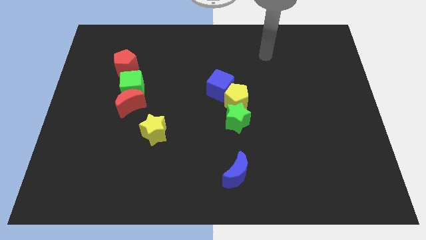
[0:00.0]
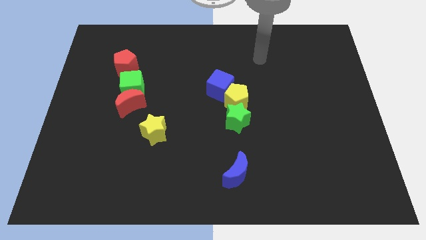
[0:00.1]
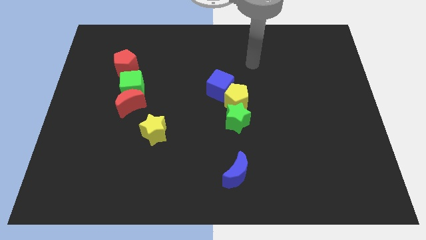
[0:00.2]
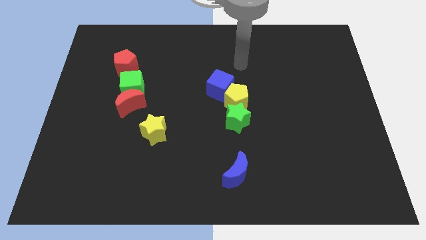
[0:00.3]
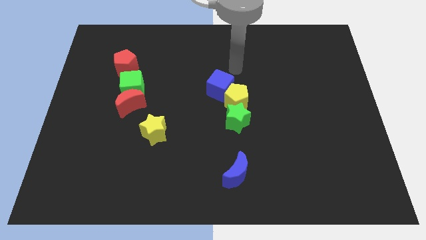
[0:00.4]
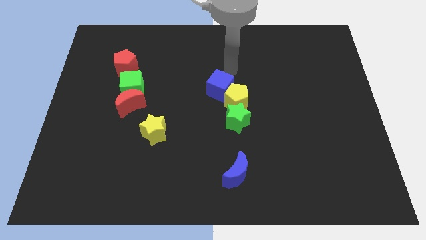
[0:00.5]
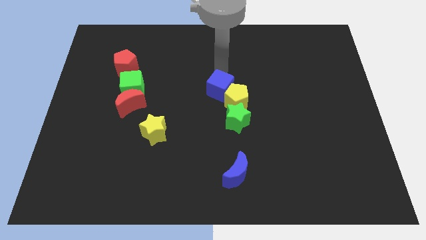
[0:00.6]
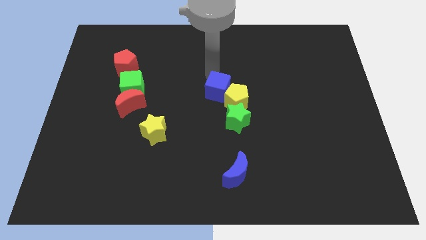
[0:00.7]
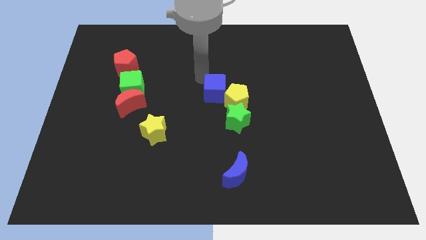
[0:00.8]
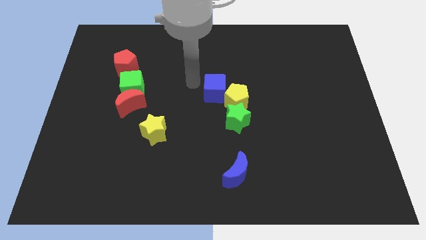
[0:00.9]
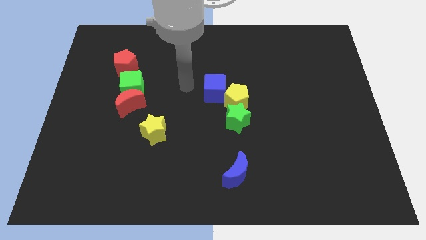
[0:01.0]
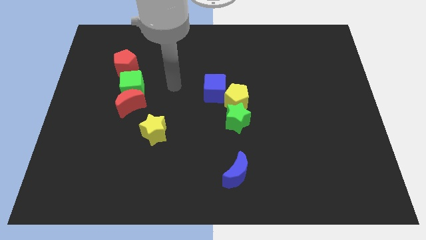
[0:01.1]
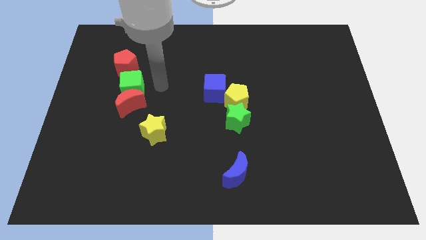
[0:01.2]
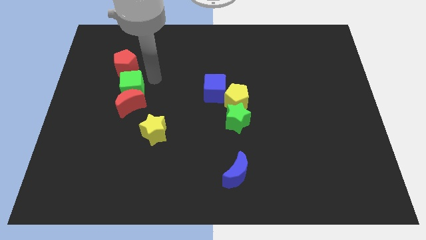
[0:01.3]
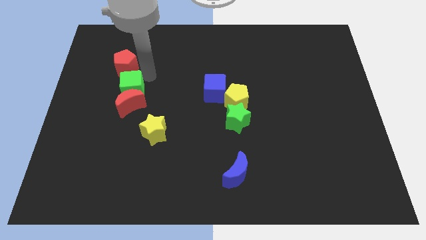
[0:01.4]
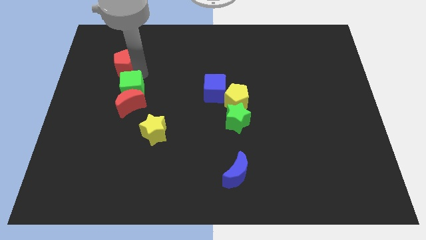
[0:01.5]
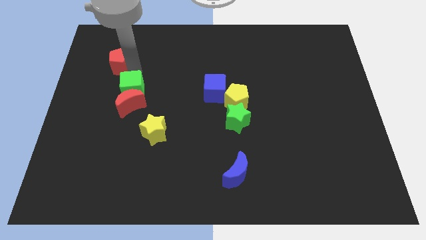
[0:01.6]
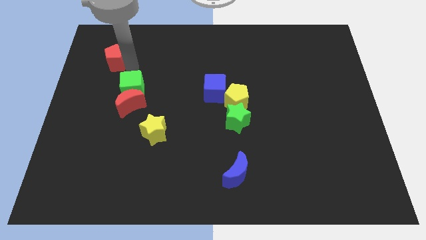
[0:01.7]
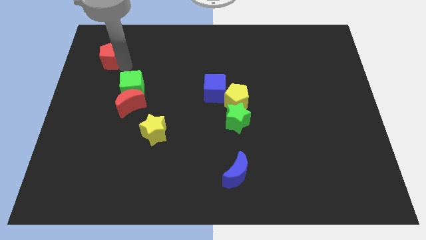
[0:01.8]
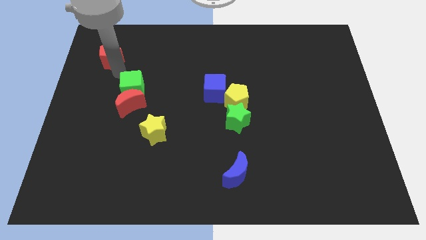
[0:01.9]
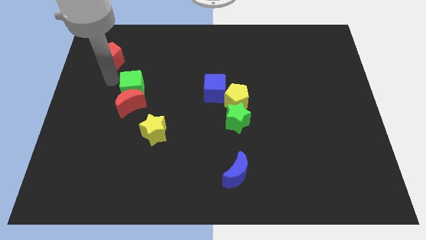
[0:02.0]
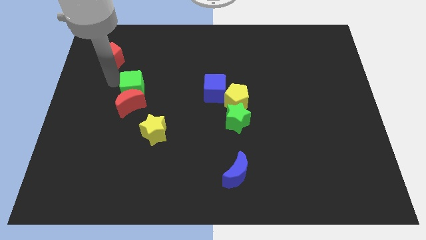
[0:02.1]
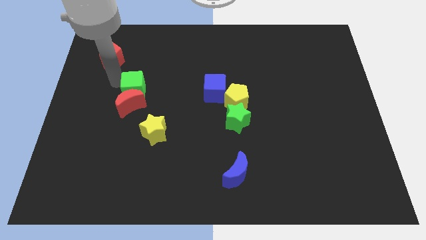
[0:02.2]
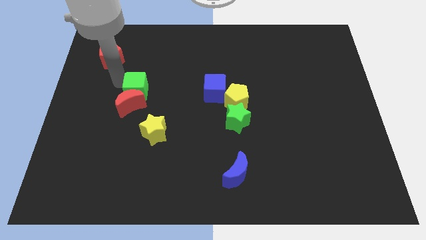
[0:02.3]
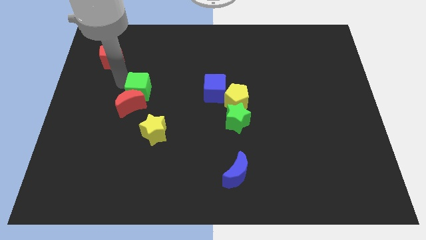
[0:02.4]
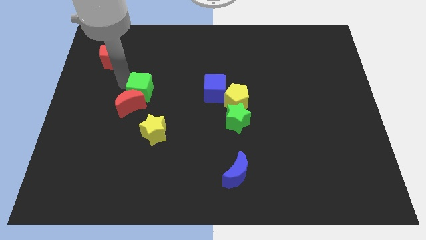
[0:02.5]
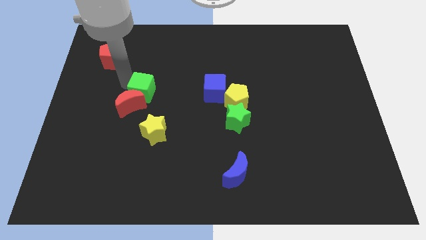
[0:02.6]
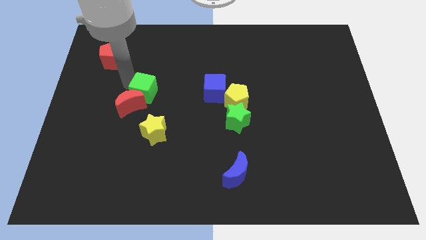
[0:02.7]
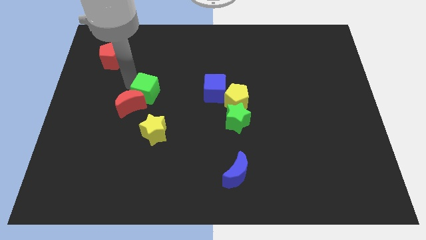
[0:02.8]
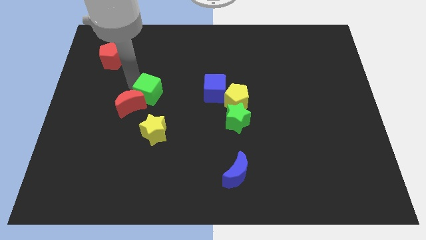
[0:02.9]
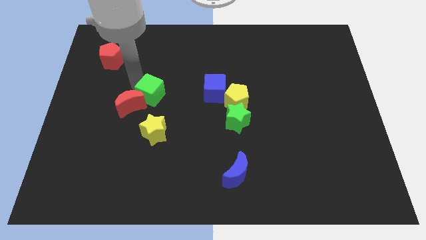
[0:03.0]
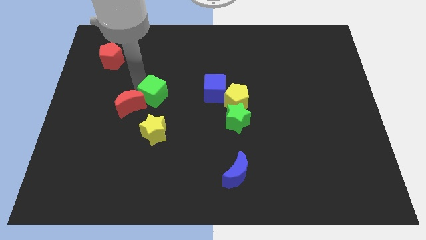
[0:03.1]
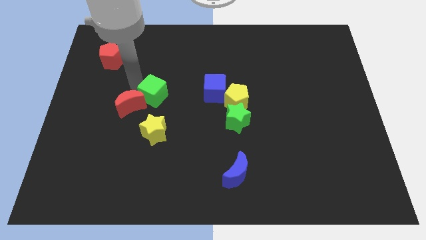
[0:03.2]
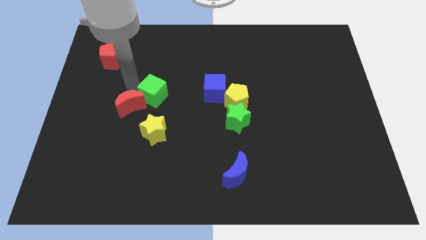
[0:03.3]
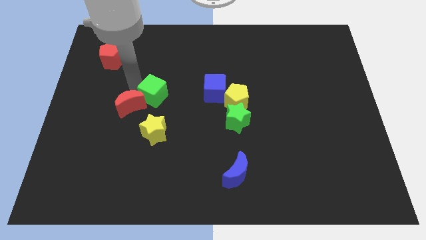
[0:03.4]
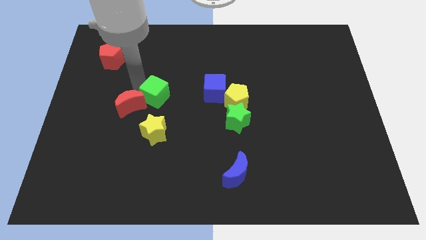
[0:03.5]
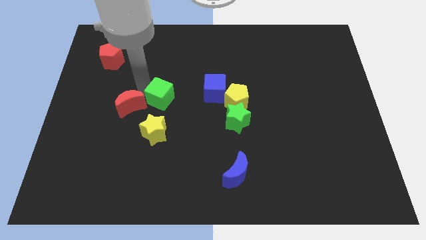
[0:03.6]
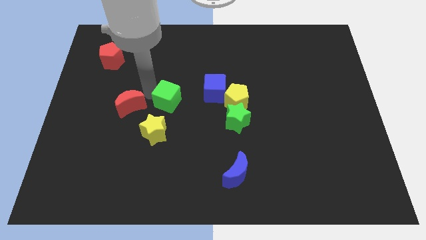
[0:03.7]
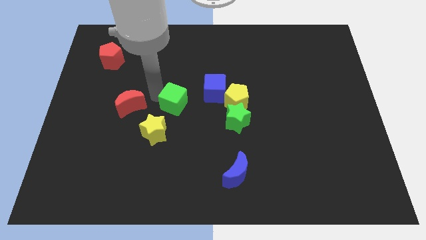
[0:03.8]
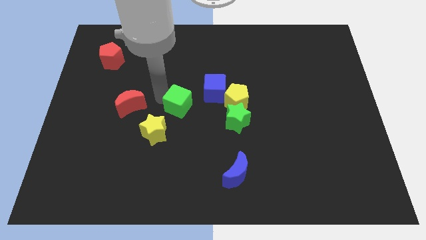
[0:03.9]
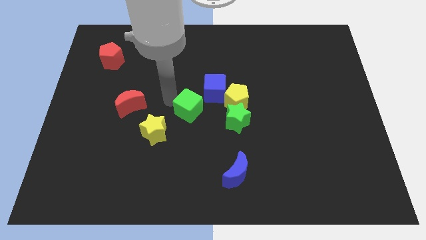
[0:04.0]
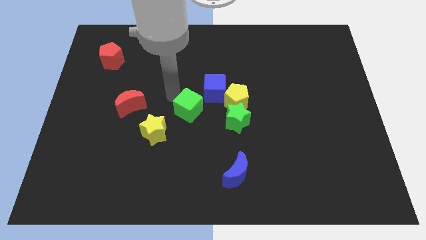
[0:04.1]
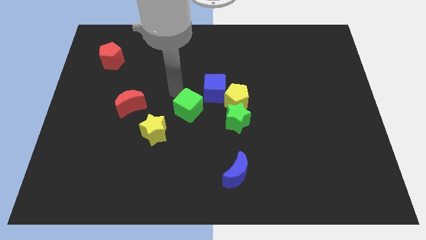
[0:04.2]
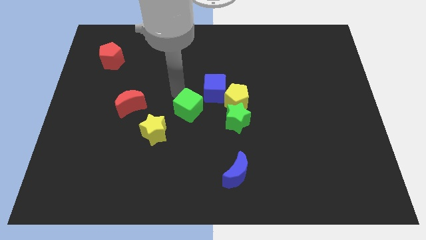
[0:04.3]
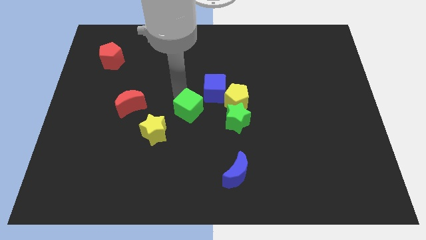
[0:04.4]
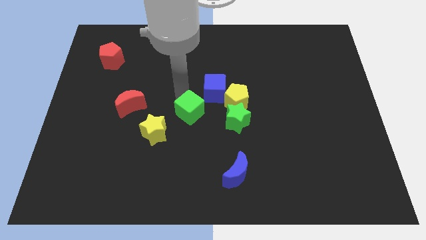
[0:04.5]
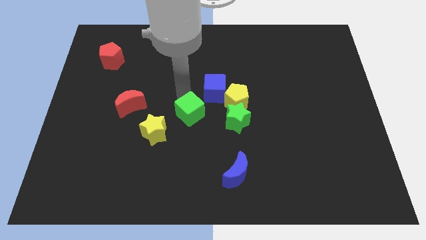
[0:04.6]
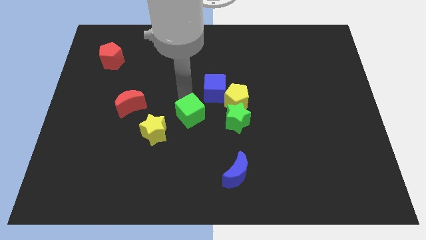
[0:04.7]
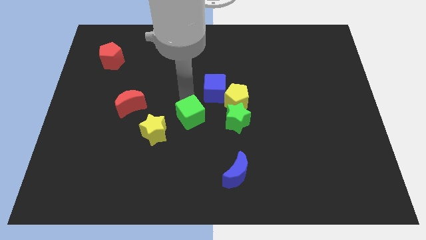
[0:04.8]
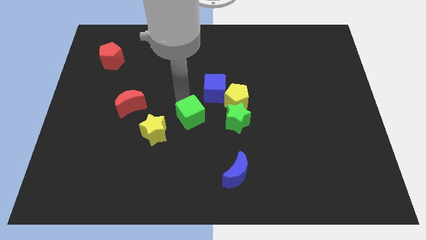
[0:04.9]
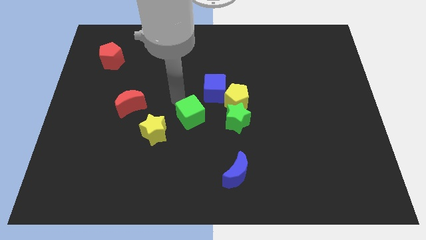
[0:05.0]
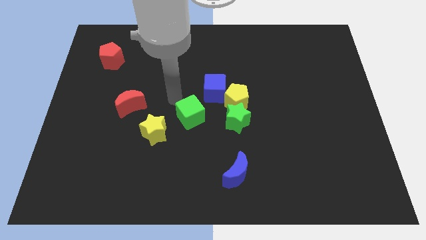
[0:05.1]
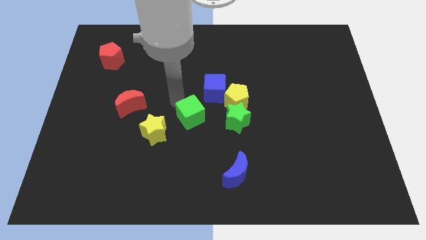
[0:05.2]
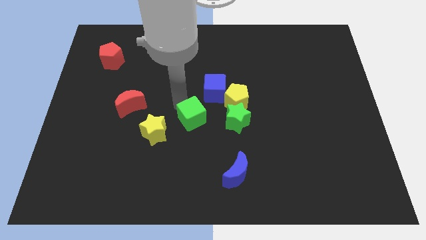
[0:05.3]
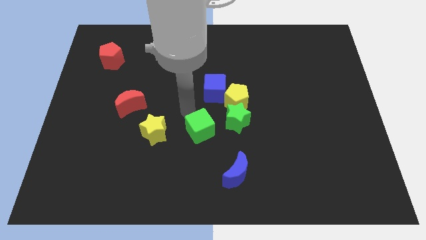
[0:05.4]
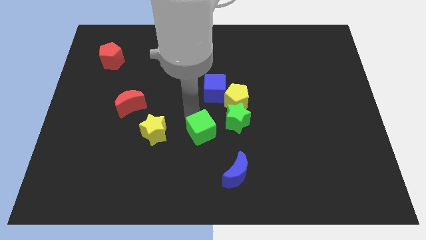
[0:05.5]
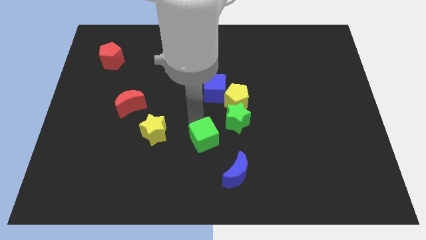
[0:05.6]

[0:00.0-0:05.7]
move the green cube to the top left side of the blue moon

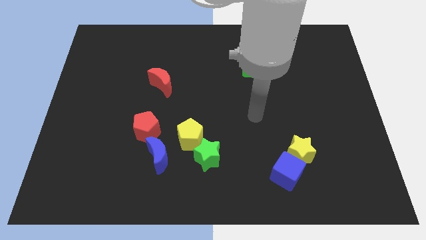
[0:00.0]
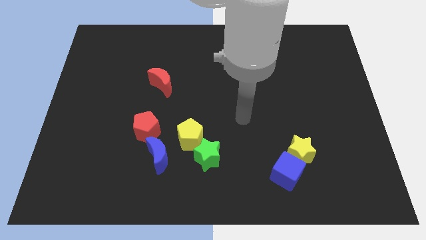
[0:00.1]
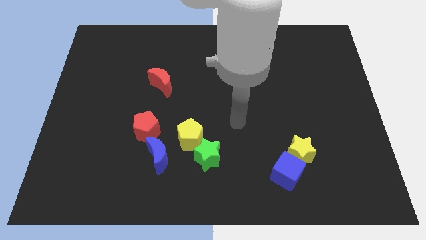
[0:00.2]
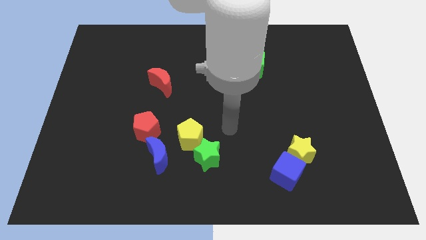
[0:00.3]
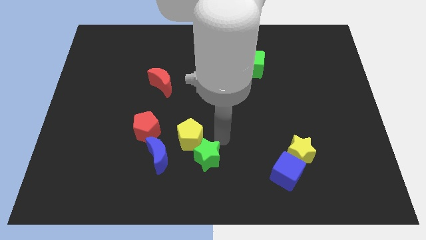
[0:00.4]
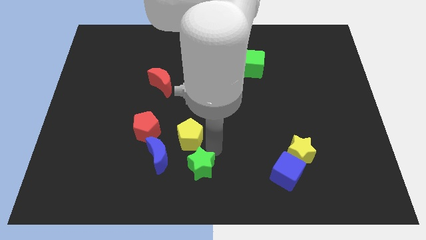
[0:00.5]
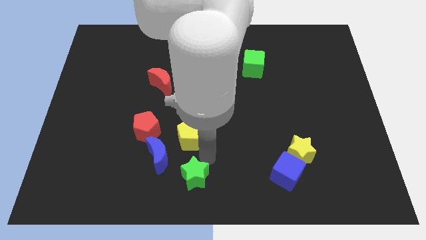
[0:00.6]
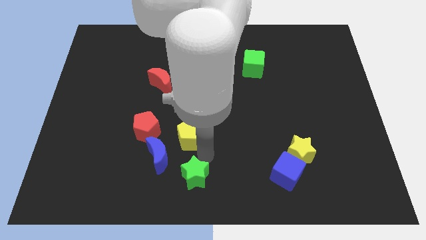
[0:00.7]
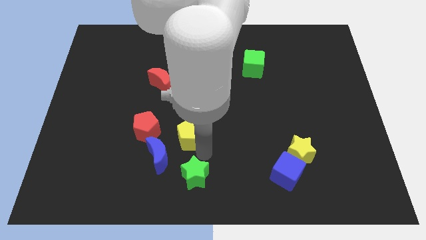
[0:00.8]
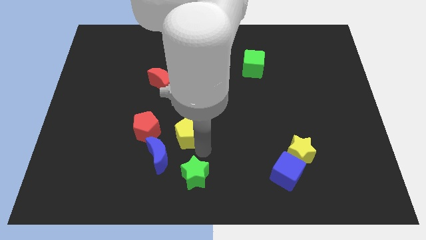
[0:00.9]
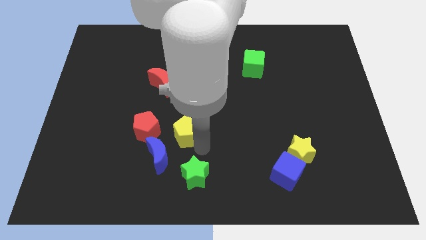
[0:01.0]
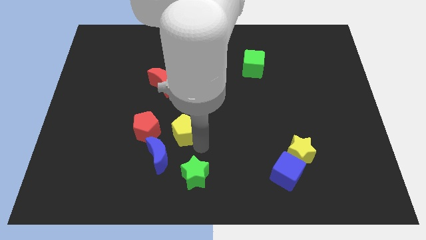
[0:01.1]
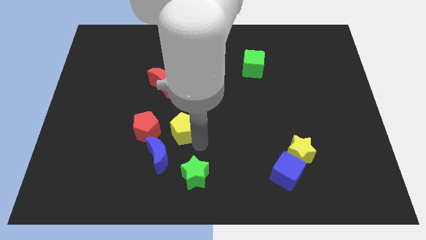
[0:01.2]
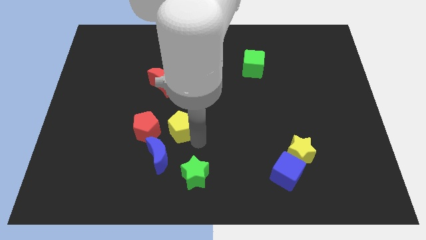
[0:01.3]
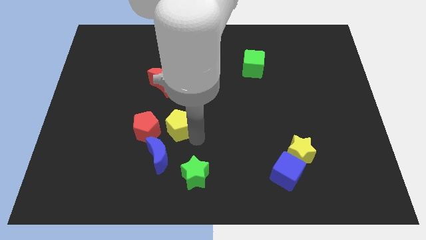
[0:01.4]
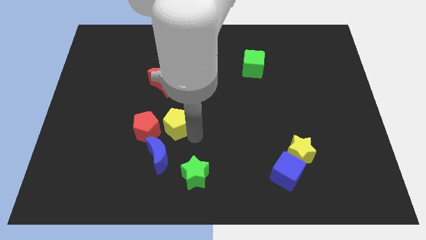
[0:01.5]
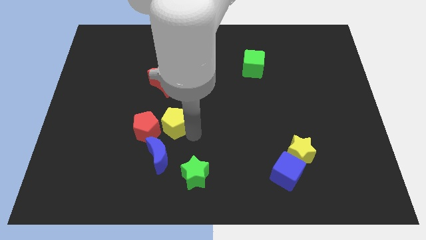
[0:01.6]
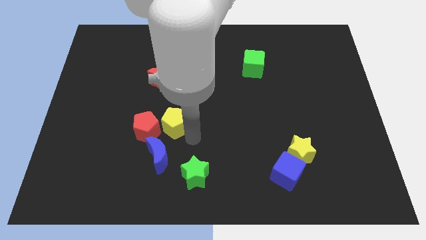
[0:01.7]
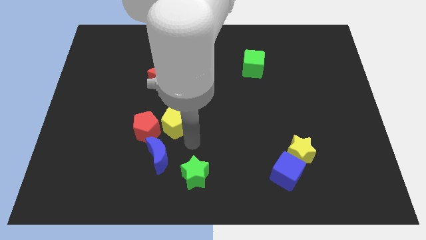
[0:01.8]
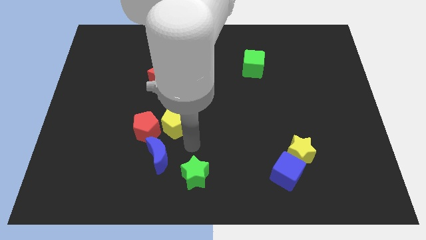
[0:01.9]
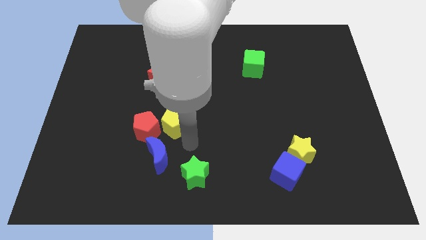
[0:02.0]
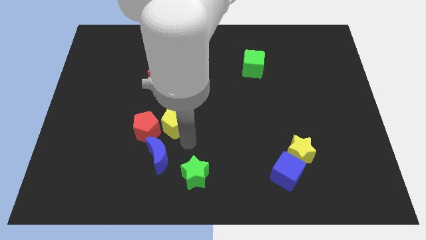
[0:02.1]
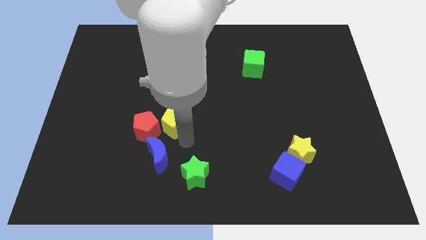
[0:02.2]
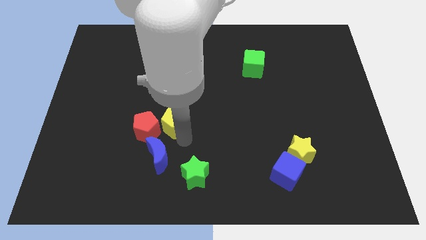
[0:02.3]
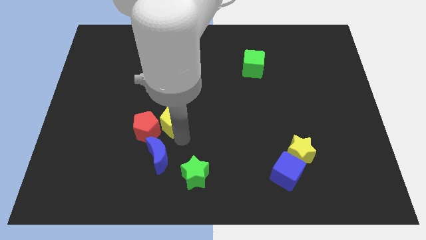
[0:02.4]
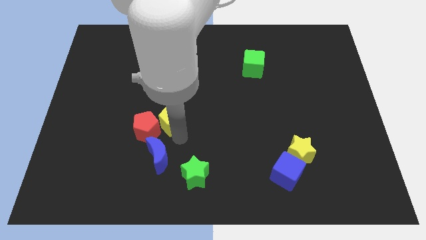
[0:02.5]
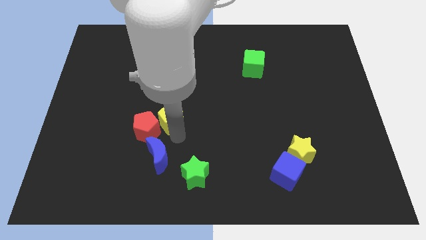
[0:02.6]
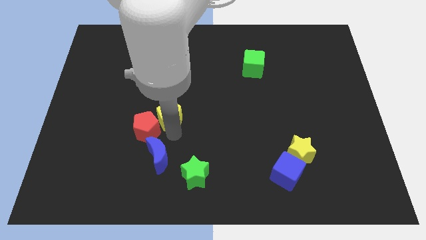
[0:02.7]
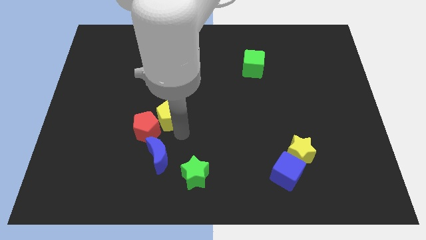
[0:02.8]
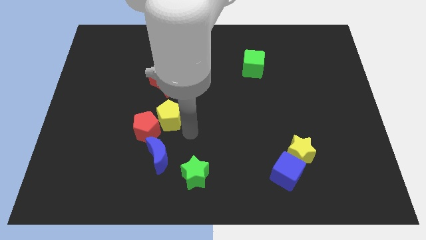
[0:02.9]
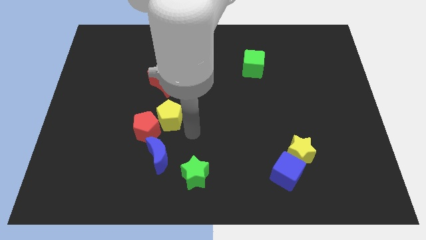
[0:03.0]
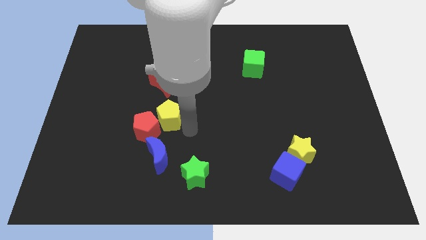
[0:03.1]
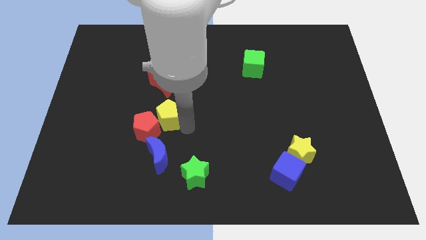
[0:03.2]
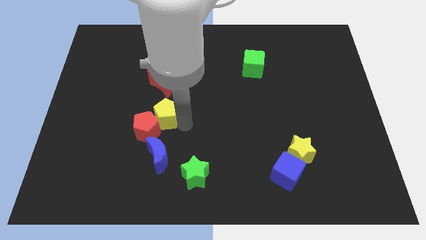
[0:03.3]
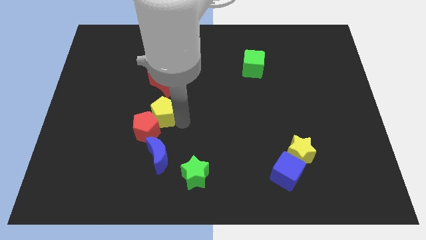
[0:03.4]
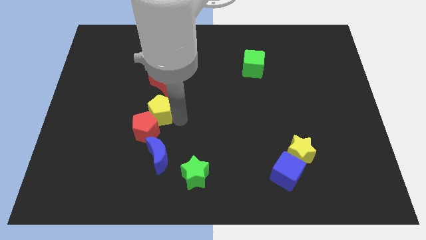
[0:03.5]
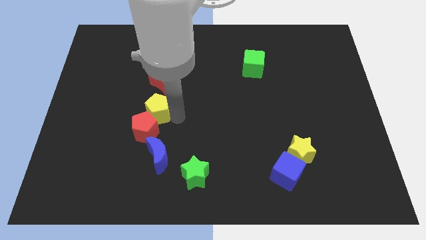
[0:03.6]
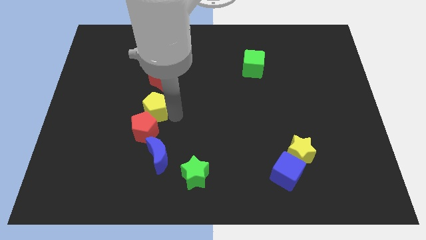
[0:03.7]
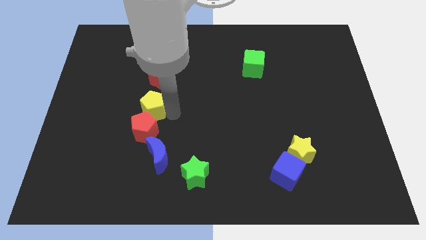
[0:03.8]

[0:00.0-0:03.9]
push the yellow pentagon diagonally down and to the left of the red moon
